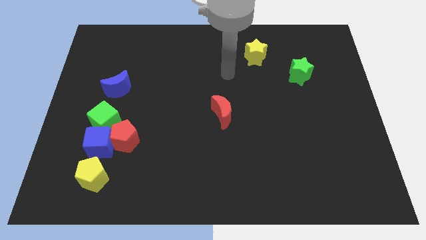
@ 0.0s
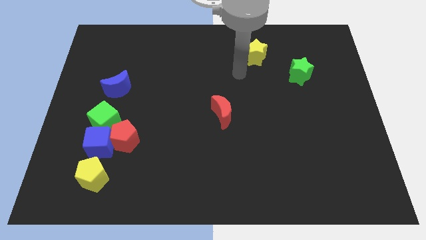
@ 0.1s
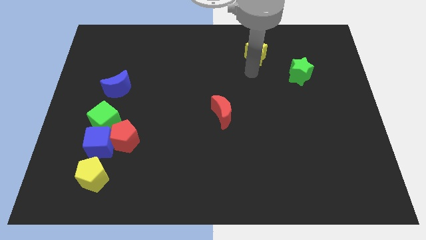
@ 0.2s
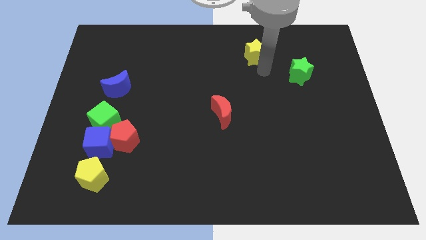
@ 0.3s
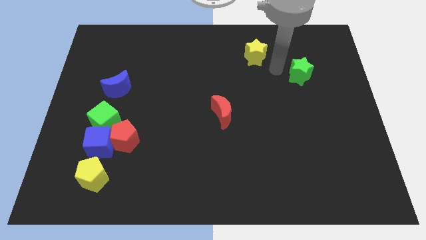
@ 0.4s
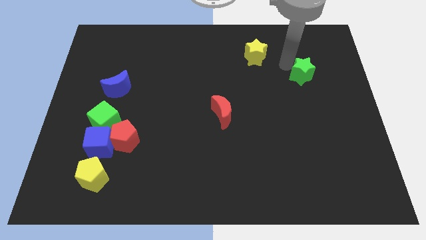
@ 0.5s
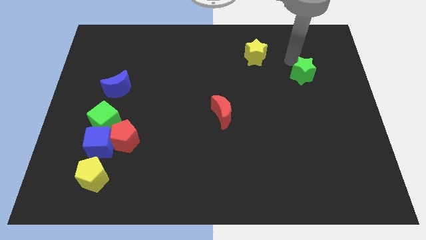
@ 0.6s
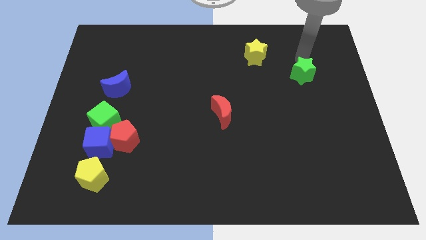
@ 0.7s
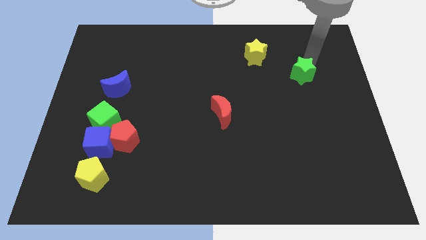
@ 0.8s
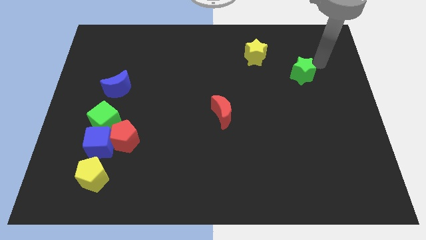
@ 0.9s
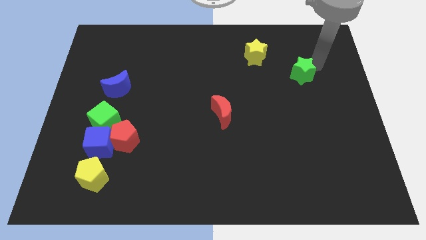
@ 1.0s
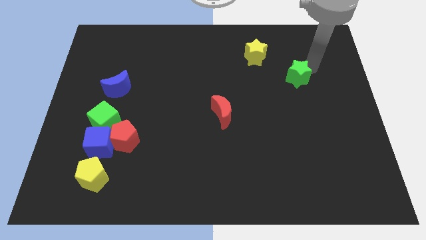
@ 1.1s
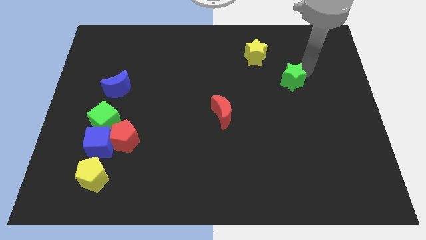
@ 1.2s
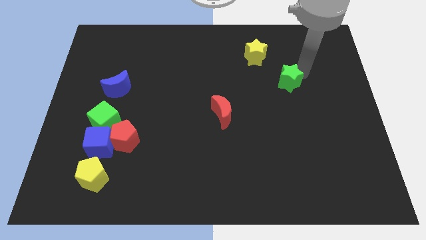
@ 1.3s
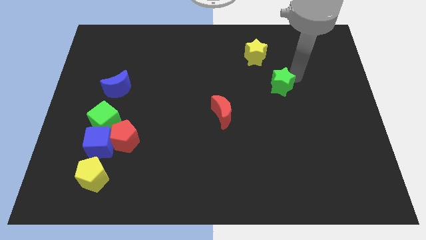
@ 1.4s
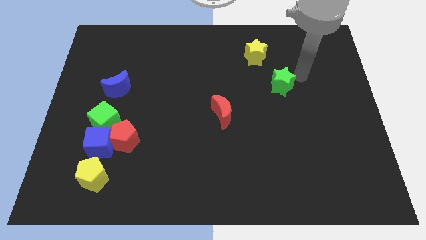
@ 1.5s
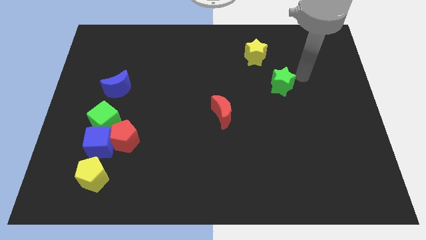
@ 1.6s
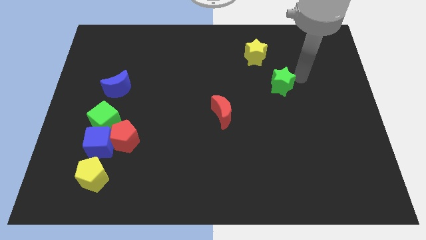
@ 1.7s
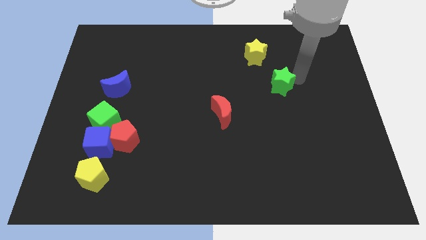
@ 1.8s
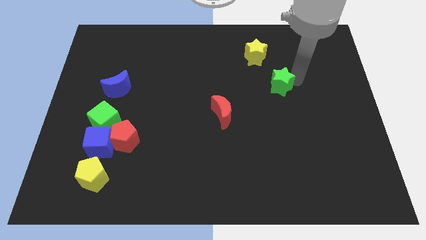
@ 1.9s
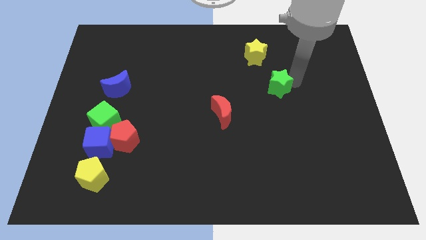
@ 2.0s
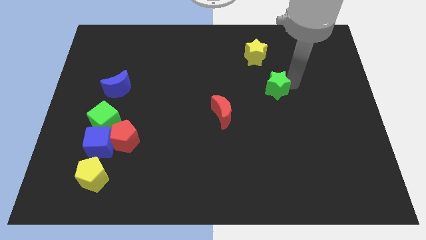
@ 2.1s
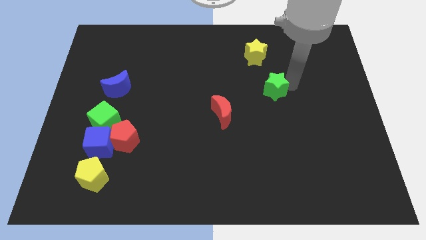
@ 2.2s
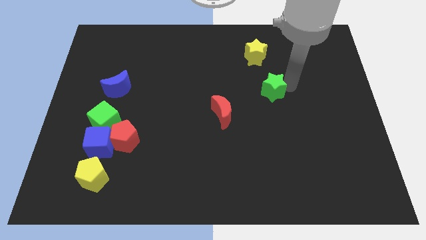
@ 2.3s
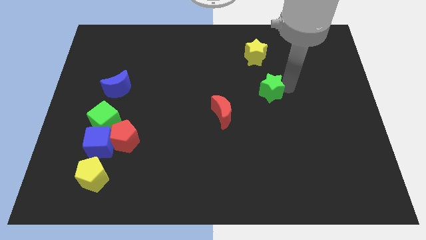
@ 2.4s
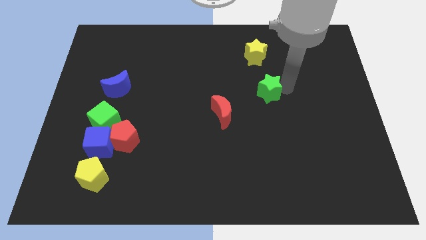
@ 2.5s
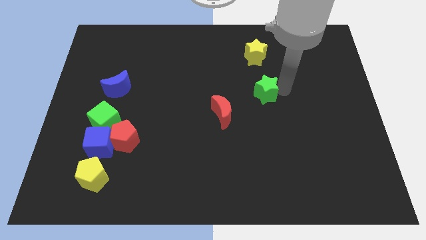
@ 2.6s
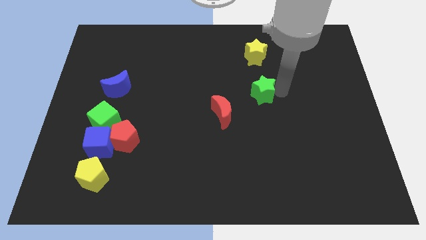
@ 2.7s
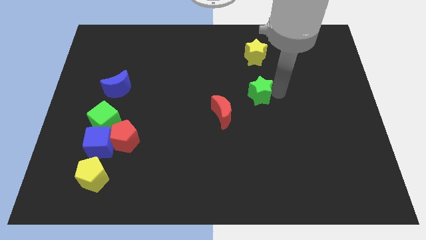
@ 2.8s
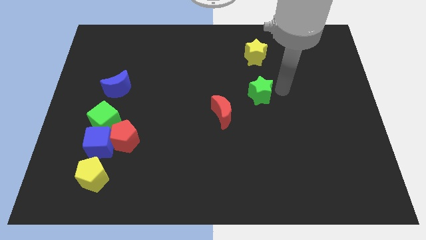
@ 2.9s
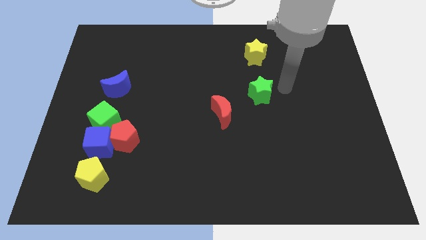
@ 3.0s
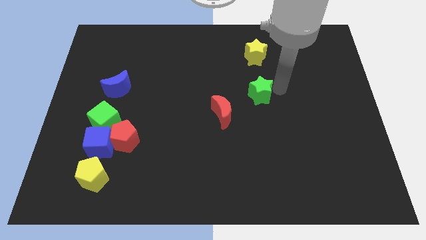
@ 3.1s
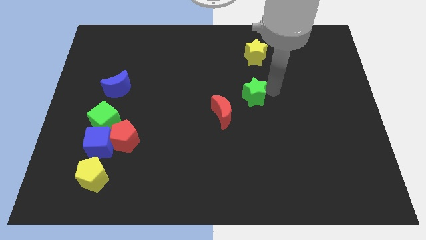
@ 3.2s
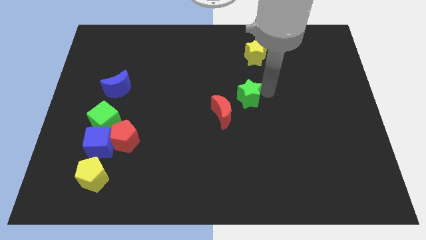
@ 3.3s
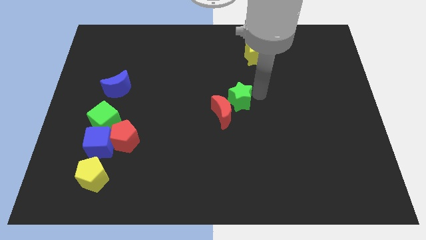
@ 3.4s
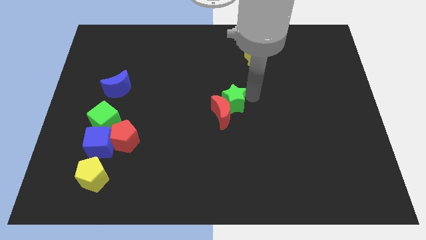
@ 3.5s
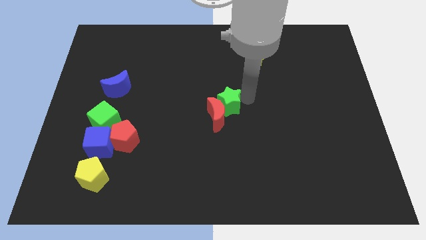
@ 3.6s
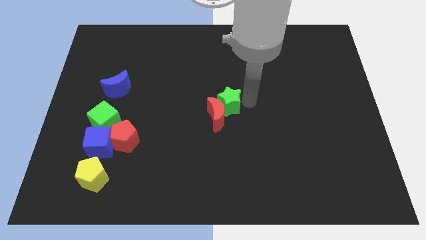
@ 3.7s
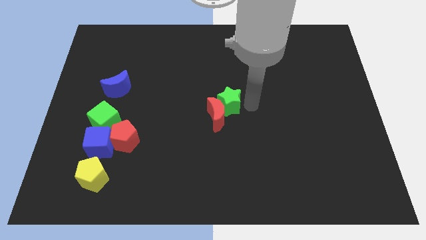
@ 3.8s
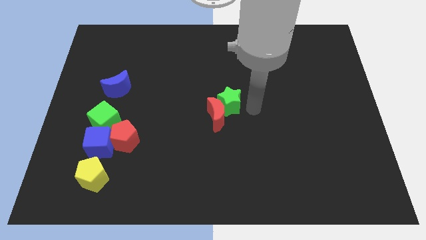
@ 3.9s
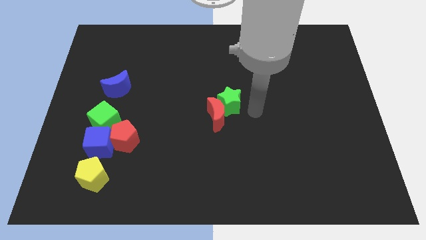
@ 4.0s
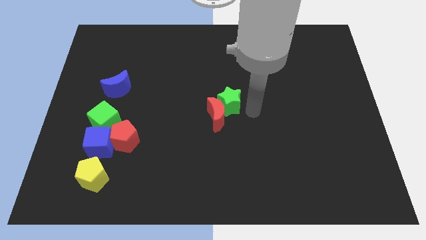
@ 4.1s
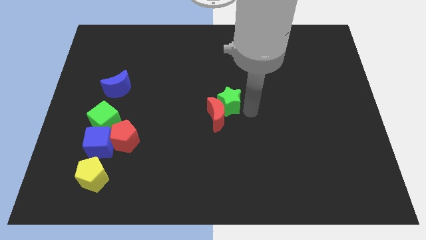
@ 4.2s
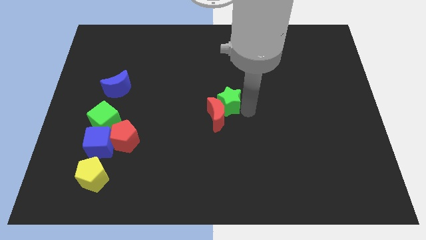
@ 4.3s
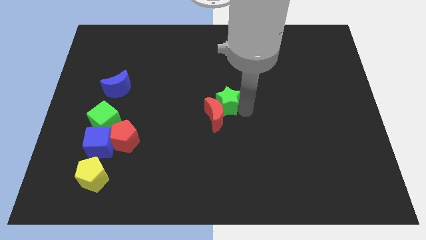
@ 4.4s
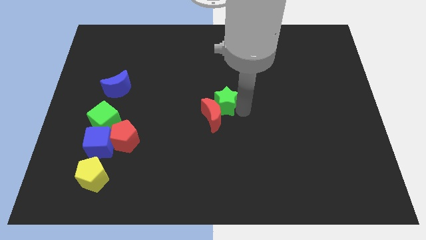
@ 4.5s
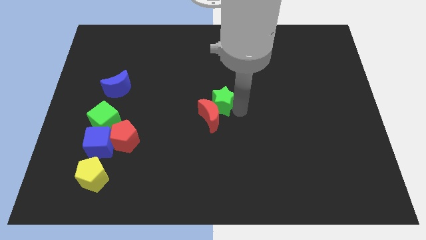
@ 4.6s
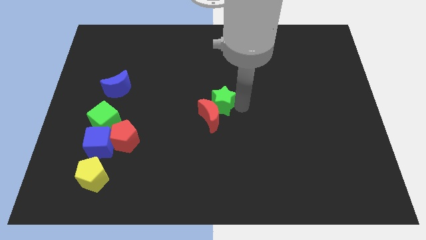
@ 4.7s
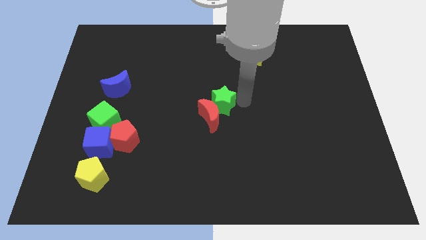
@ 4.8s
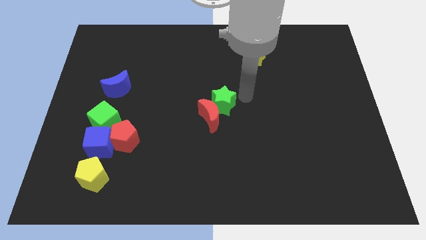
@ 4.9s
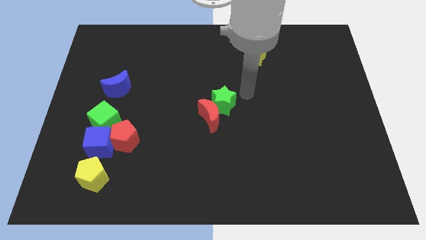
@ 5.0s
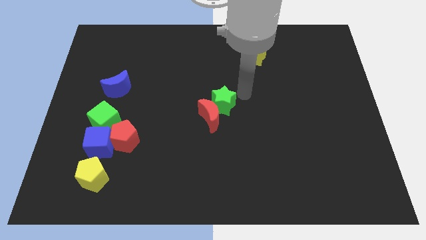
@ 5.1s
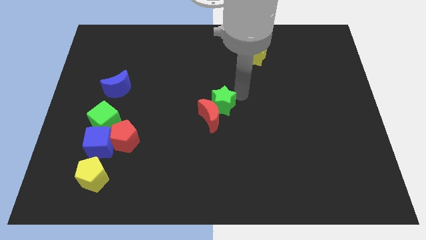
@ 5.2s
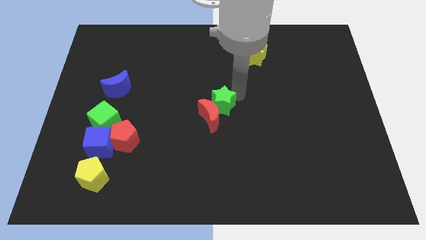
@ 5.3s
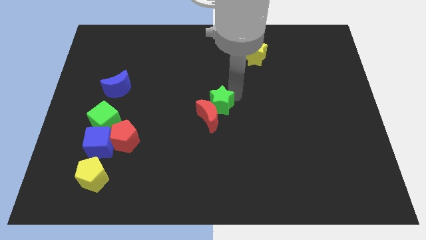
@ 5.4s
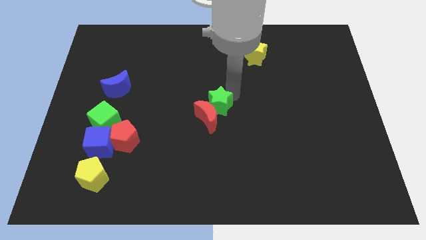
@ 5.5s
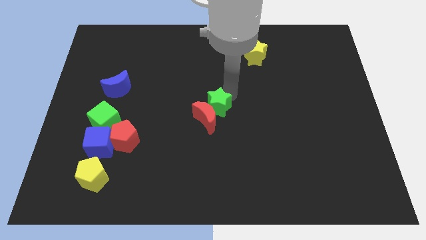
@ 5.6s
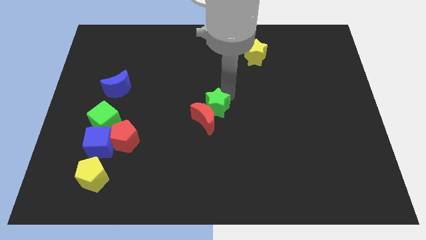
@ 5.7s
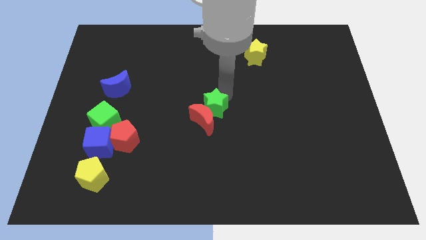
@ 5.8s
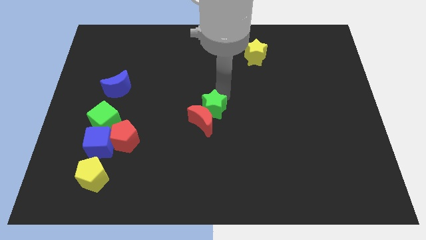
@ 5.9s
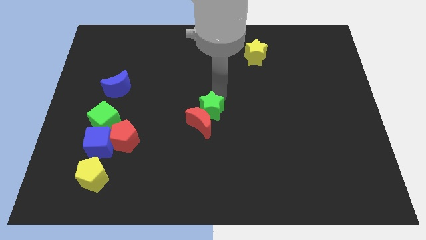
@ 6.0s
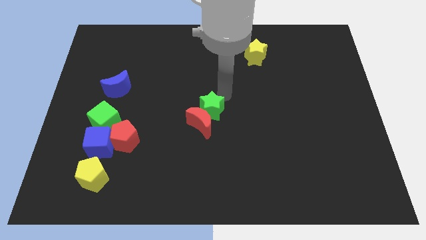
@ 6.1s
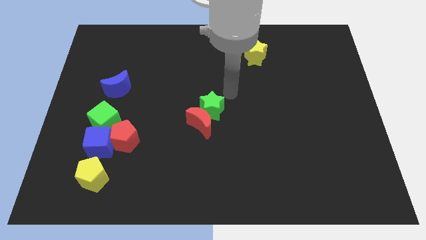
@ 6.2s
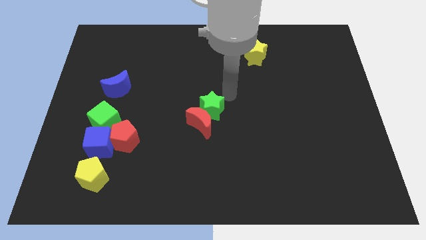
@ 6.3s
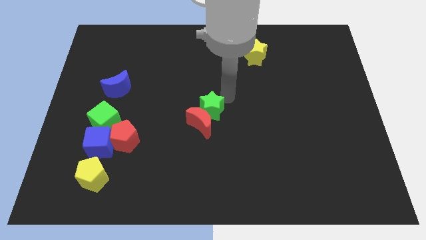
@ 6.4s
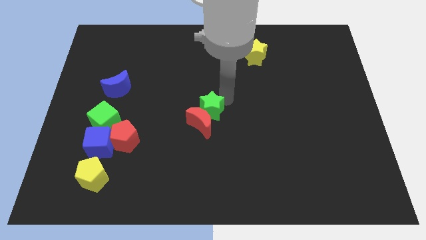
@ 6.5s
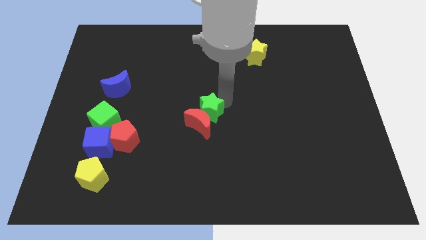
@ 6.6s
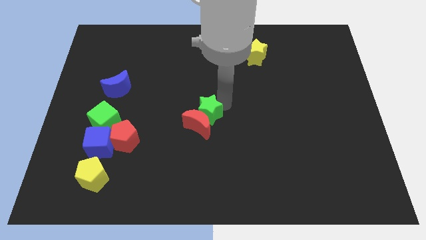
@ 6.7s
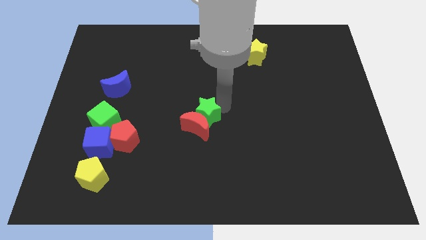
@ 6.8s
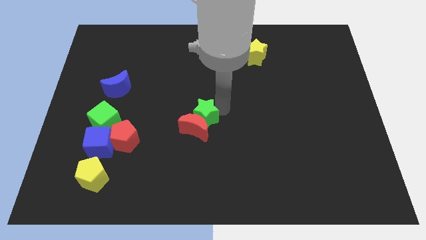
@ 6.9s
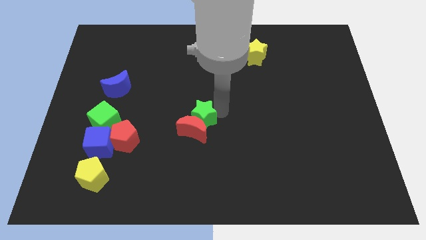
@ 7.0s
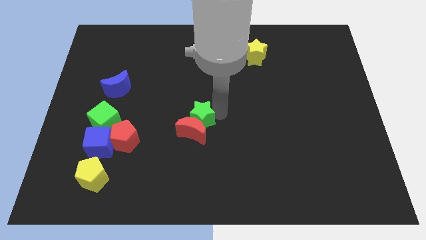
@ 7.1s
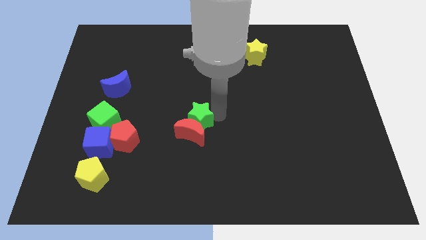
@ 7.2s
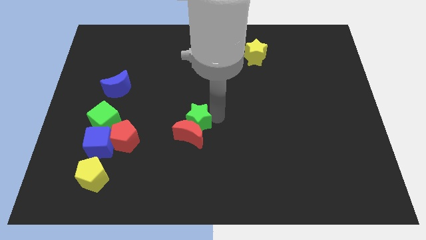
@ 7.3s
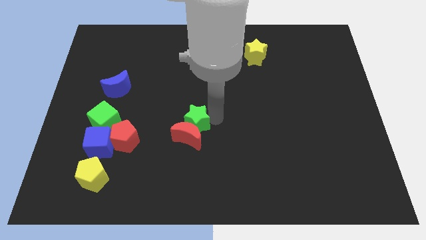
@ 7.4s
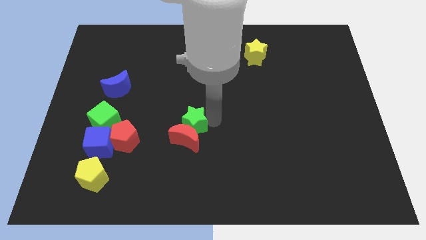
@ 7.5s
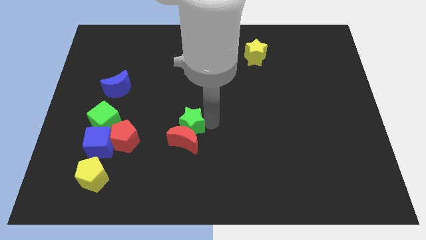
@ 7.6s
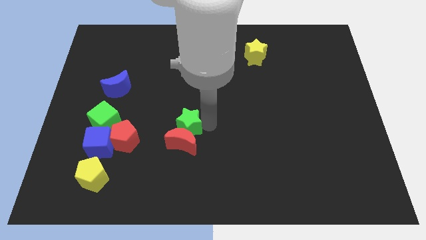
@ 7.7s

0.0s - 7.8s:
move the green star to the right of the red pentagon
